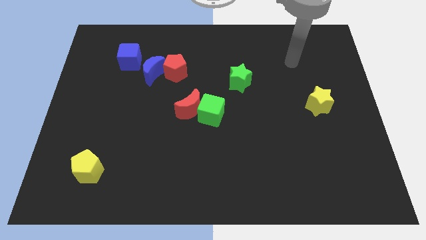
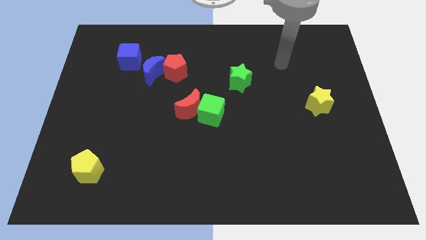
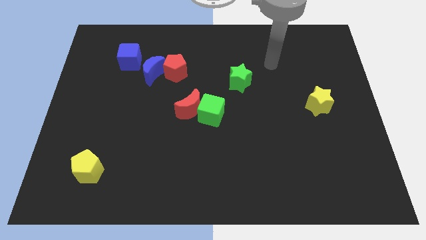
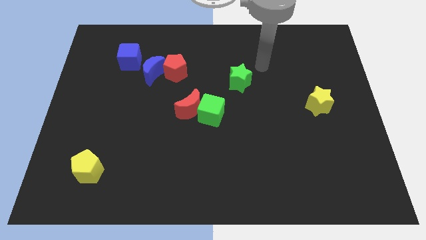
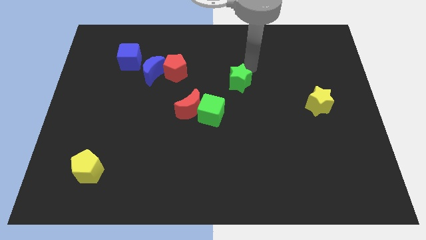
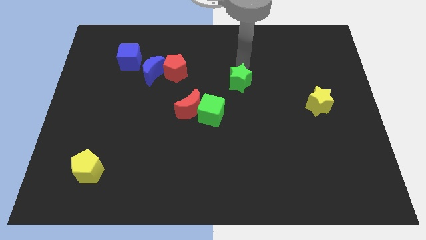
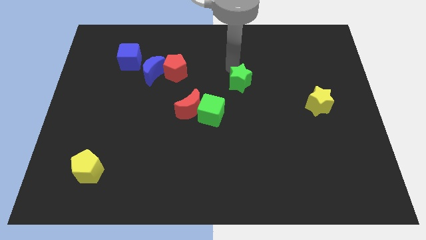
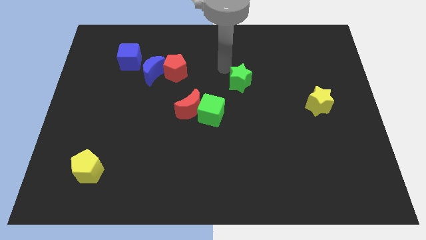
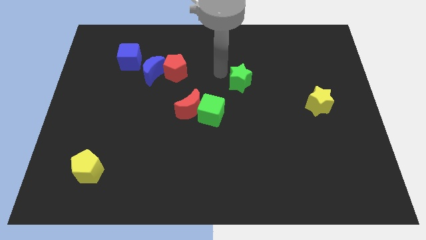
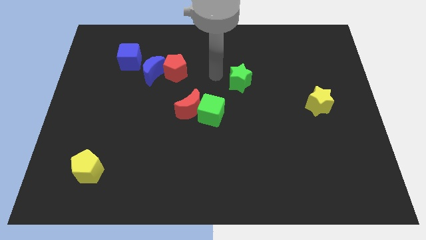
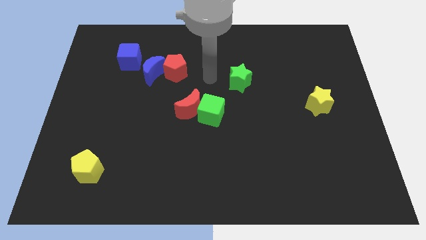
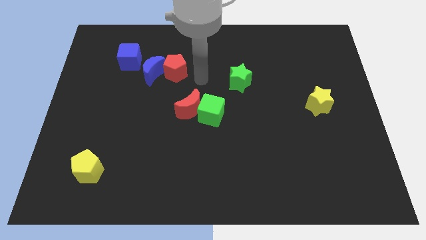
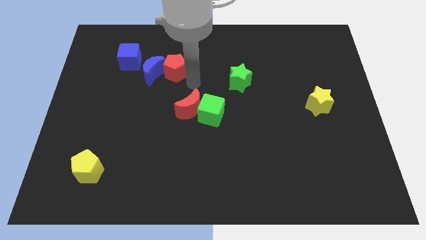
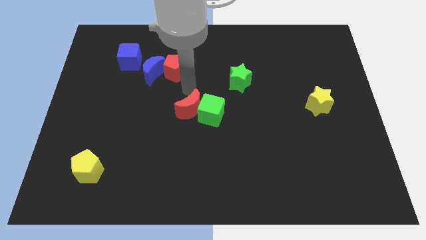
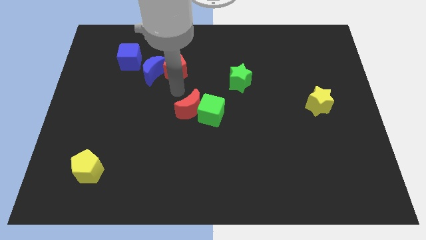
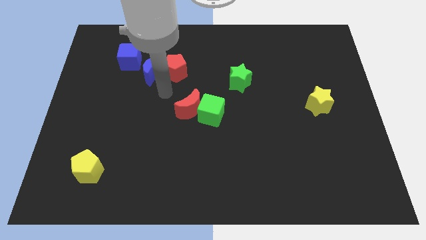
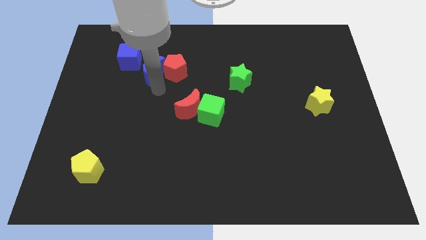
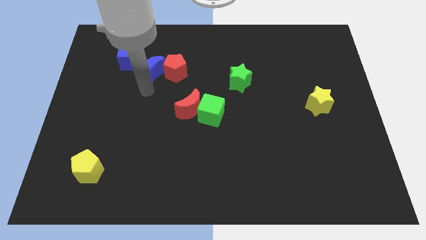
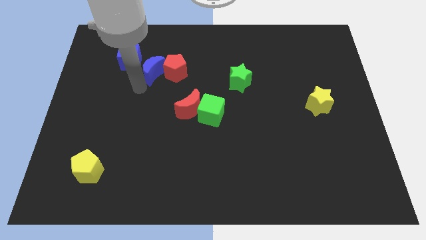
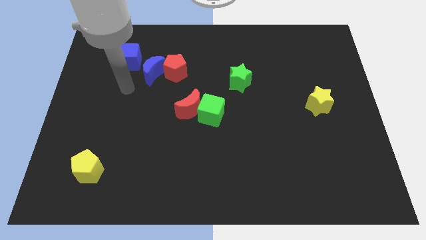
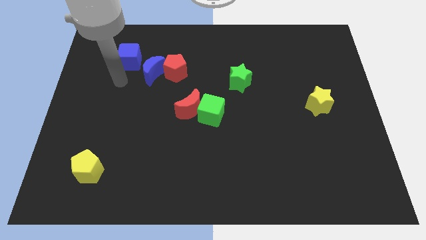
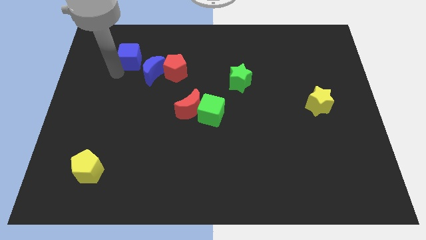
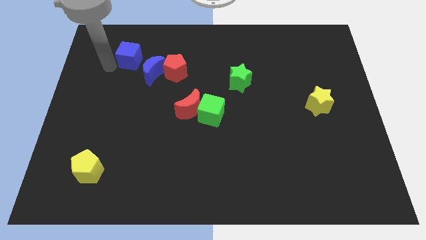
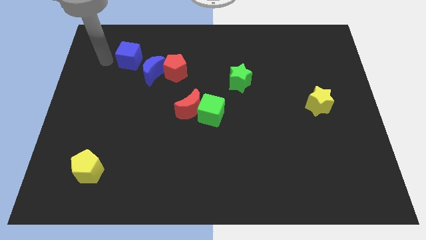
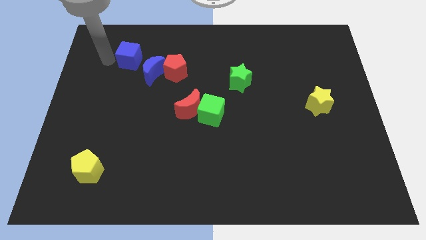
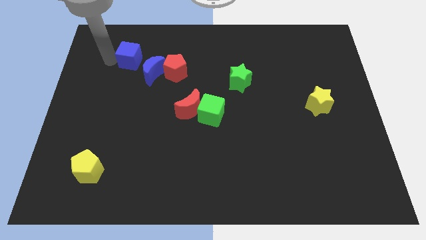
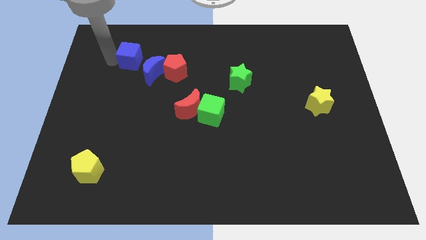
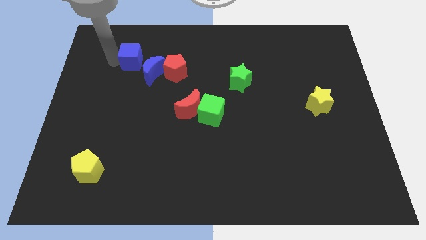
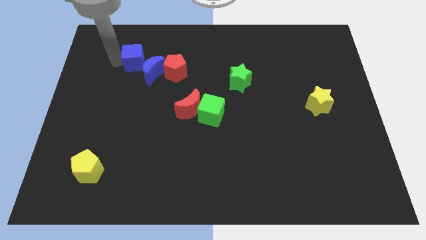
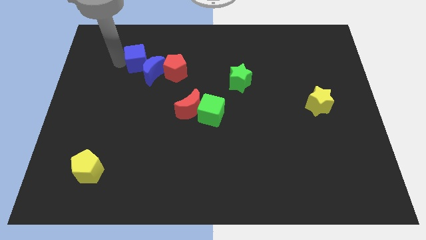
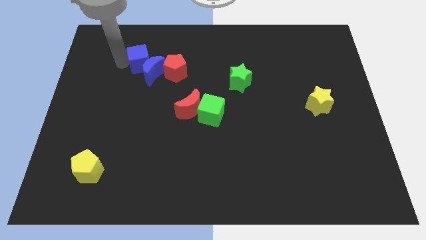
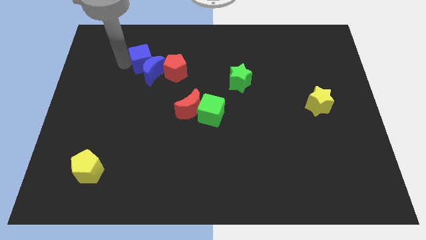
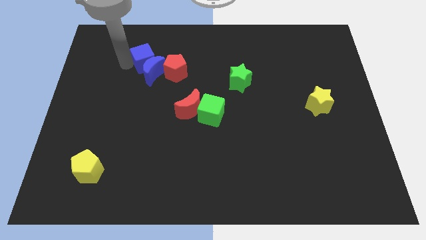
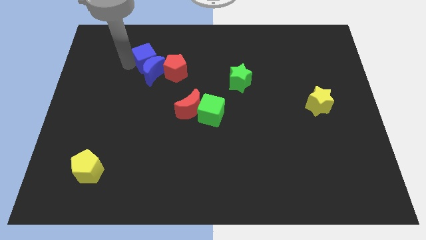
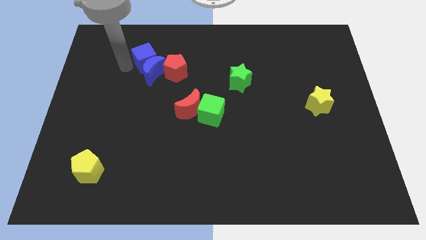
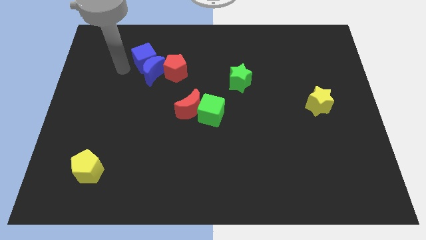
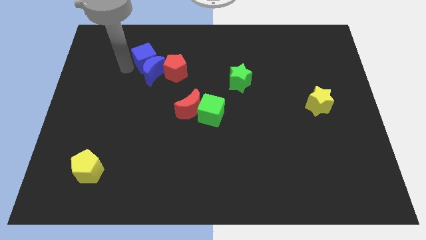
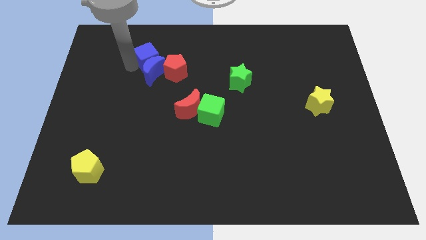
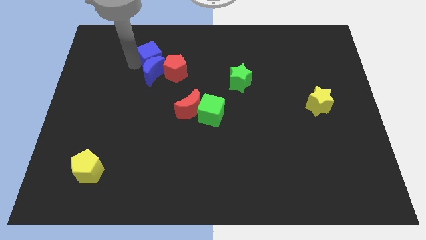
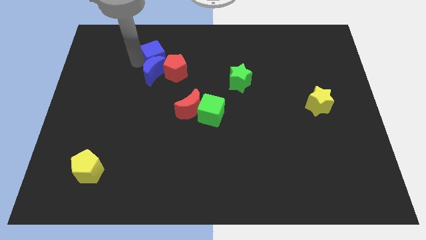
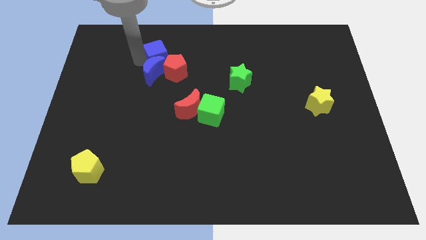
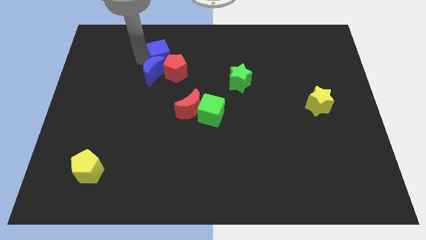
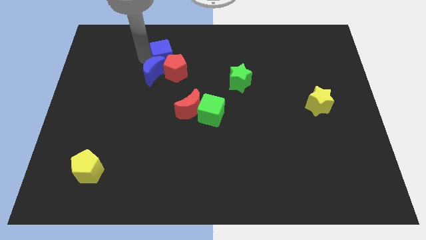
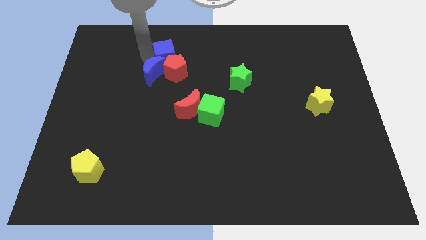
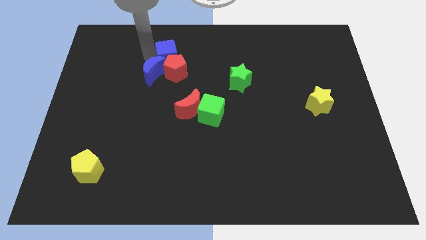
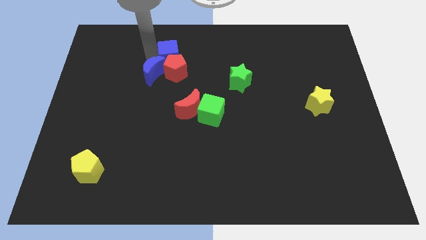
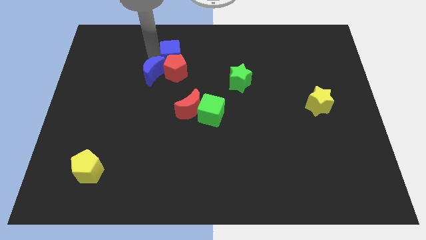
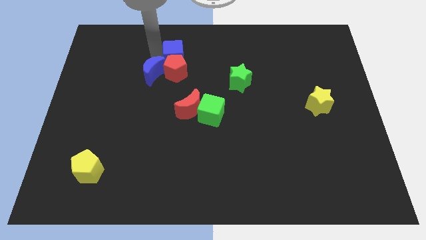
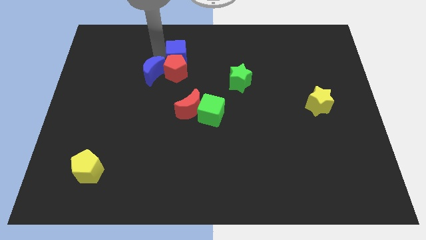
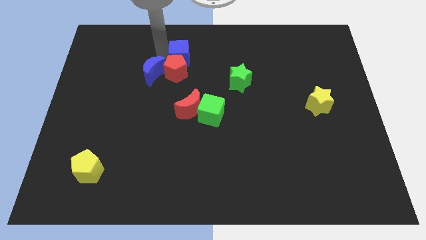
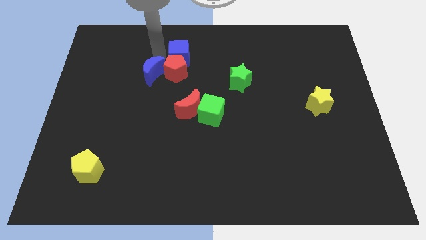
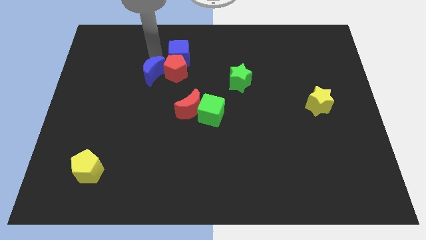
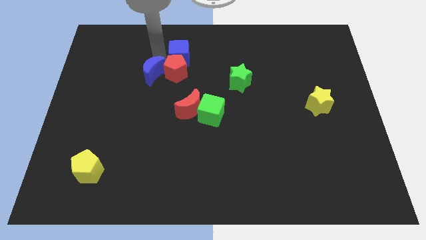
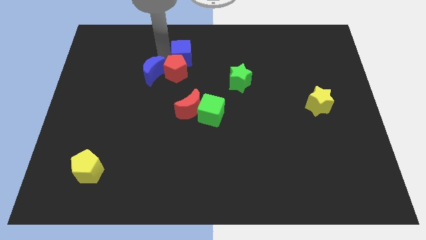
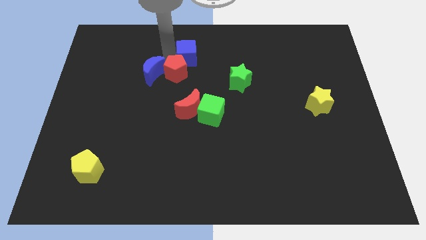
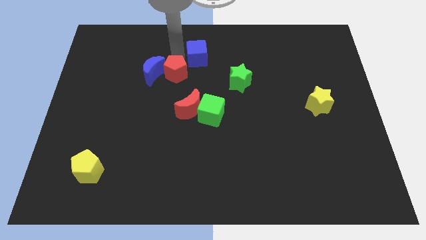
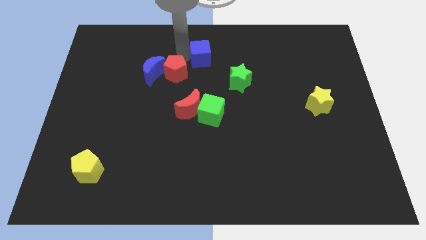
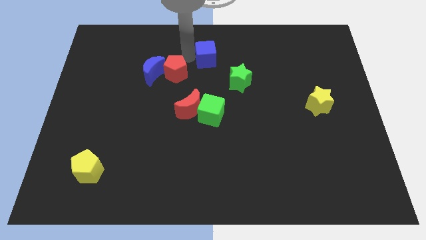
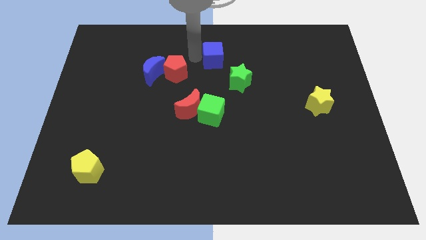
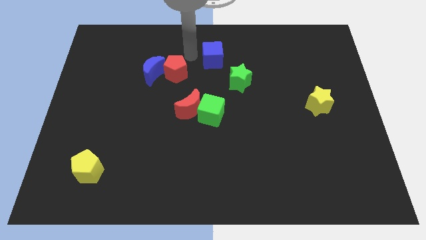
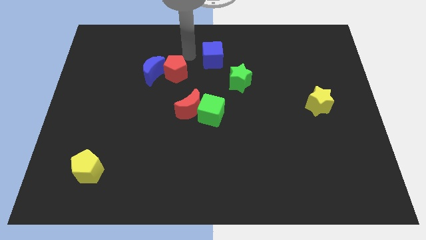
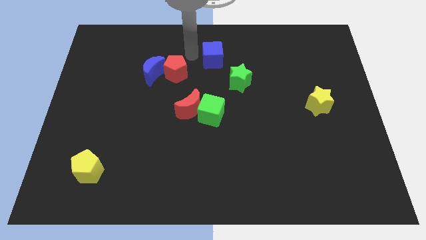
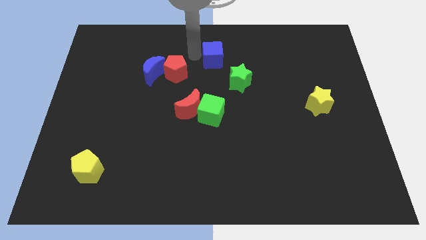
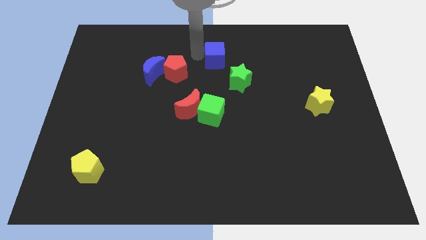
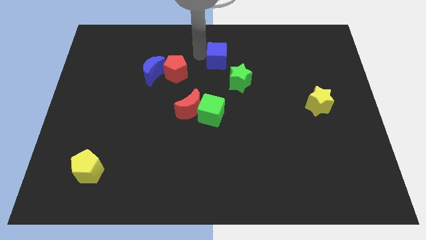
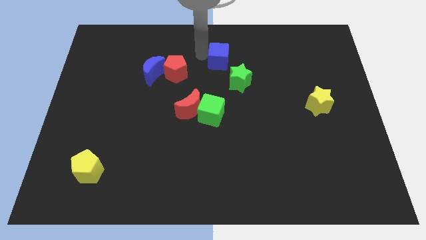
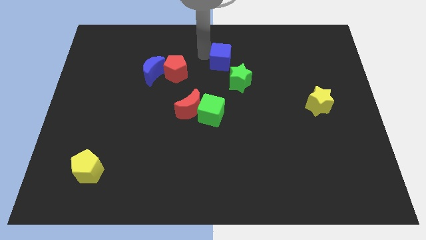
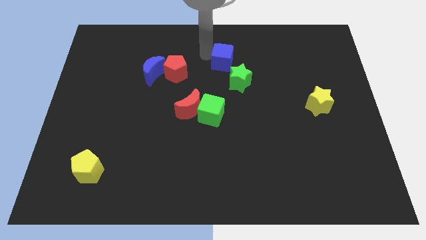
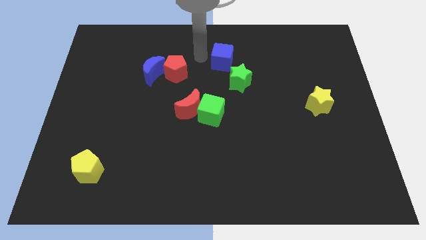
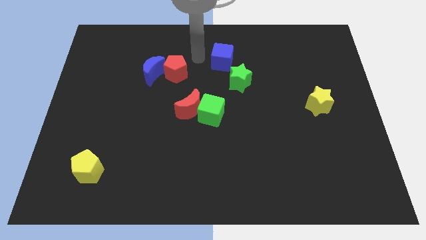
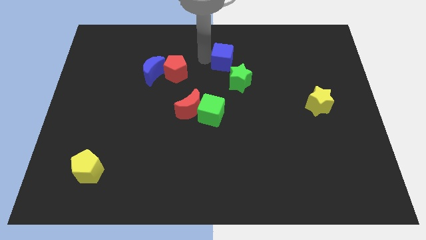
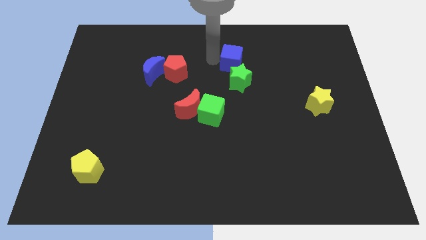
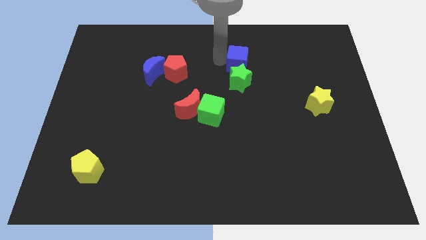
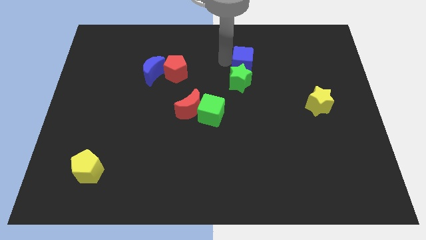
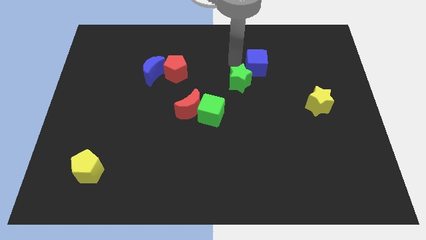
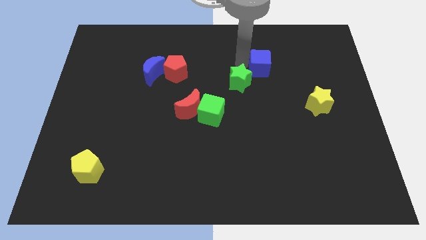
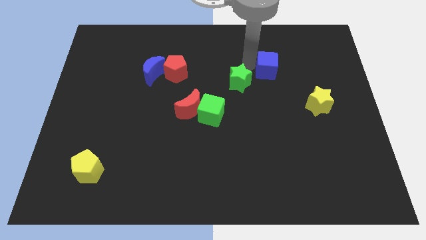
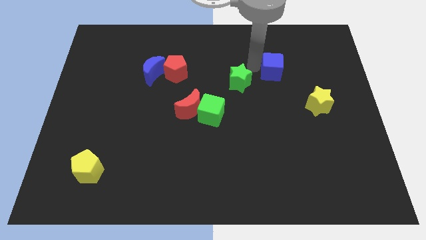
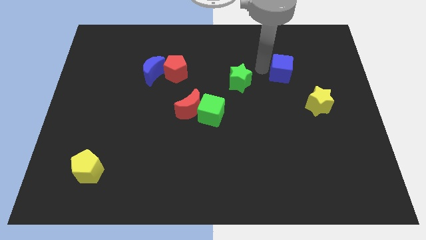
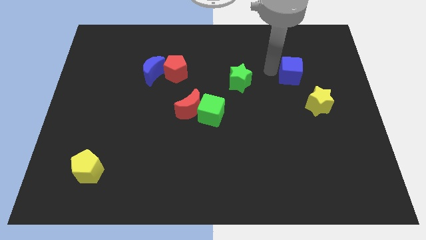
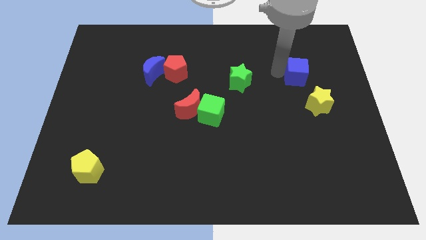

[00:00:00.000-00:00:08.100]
push the blue cube to the top side of the yellow star
